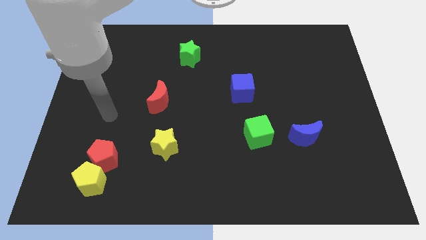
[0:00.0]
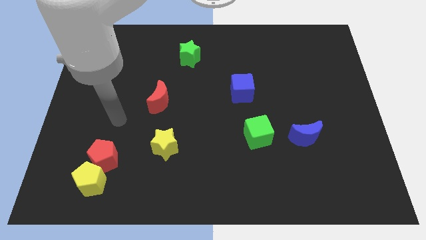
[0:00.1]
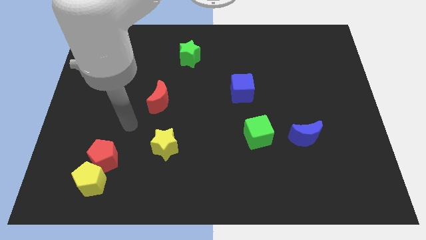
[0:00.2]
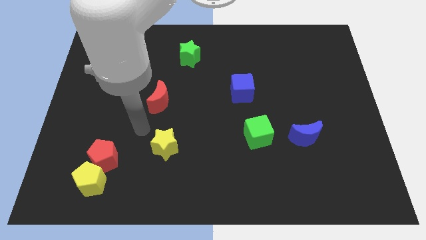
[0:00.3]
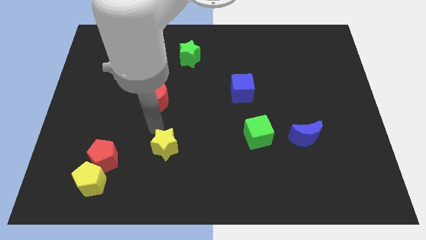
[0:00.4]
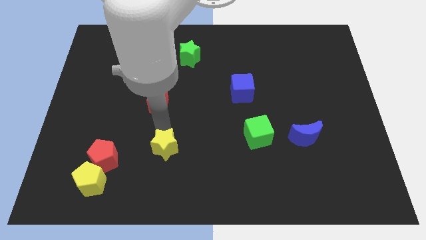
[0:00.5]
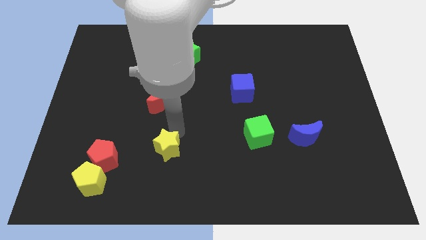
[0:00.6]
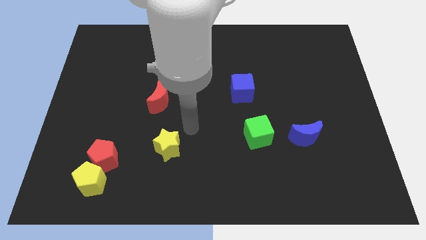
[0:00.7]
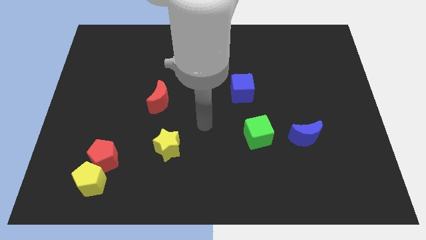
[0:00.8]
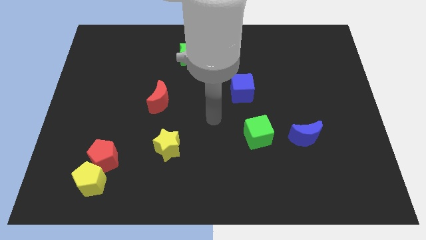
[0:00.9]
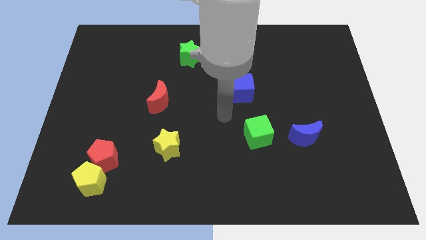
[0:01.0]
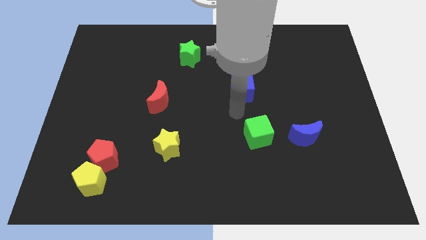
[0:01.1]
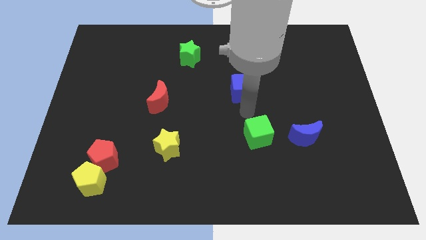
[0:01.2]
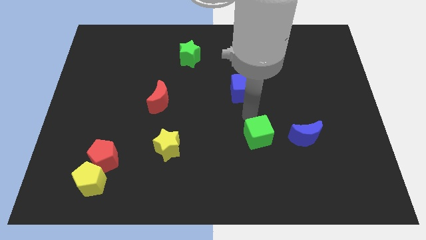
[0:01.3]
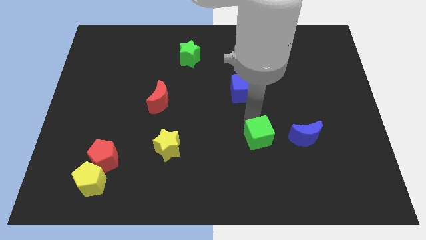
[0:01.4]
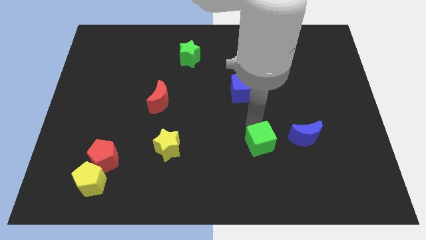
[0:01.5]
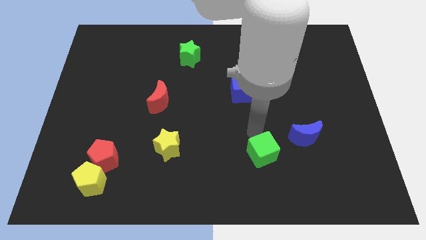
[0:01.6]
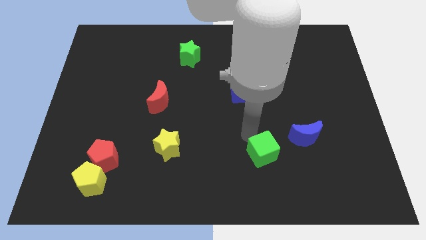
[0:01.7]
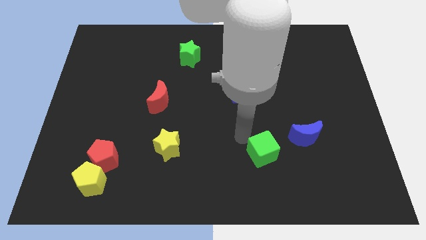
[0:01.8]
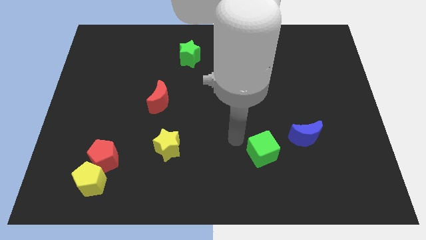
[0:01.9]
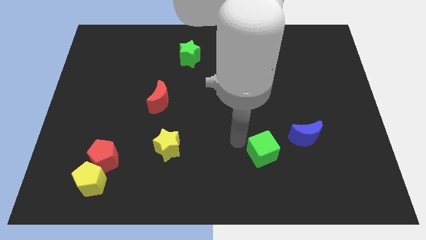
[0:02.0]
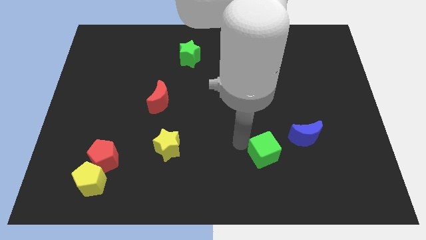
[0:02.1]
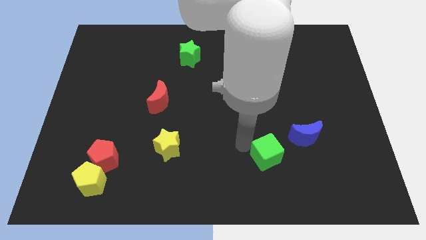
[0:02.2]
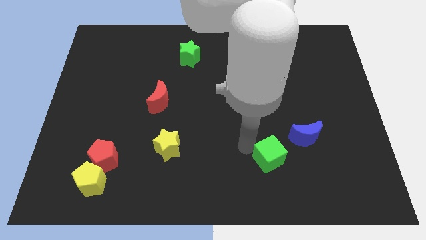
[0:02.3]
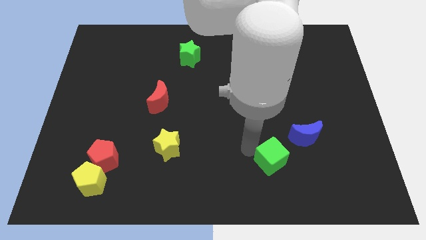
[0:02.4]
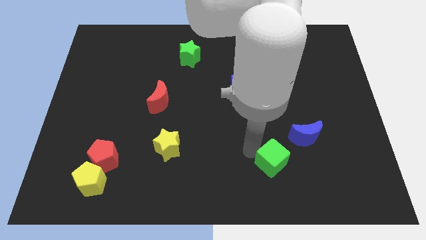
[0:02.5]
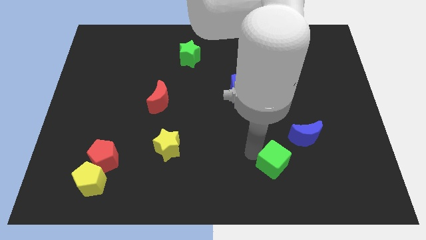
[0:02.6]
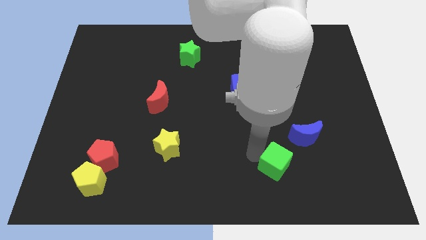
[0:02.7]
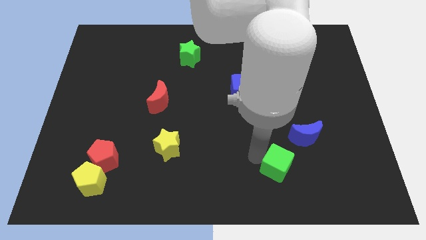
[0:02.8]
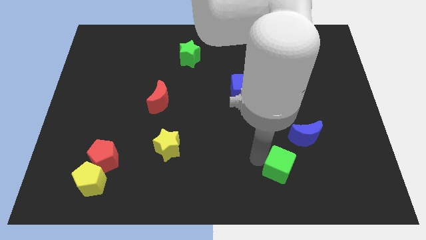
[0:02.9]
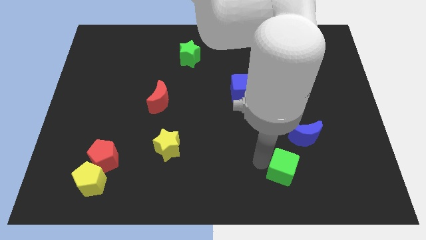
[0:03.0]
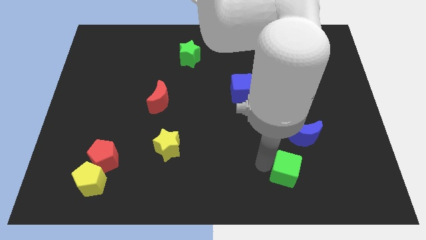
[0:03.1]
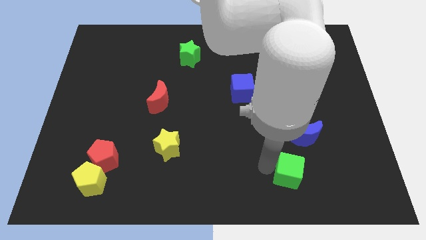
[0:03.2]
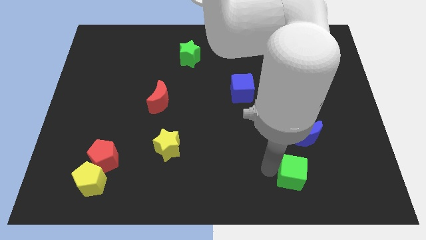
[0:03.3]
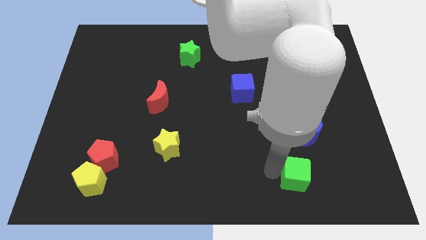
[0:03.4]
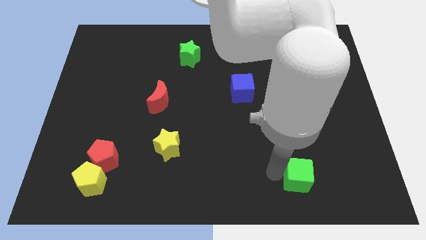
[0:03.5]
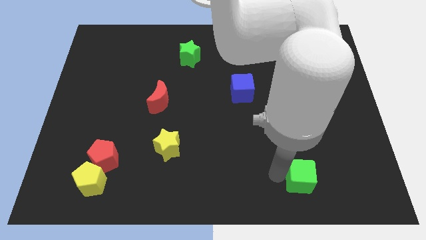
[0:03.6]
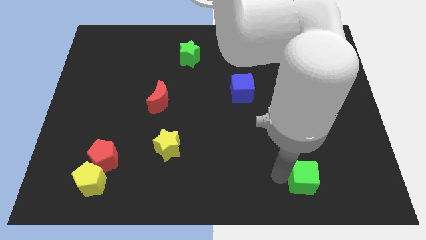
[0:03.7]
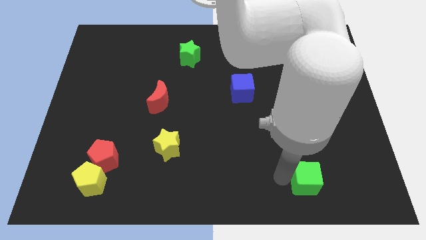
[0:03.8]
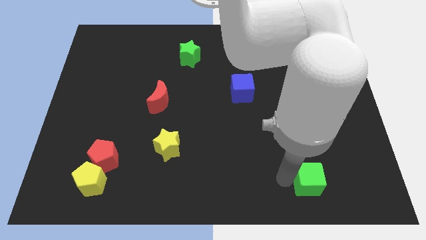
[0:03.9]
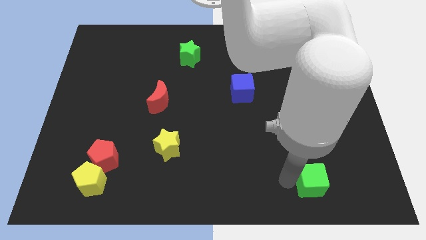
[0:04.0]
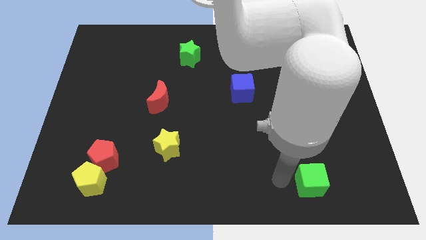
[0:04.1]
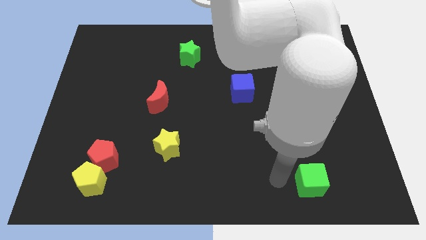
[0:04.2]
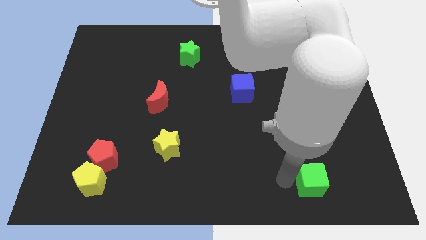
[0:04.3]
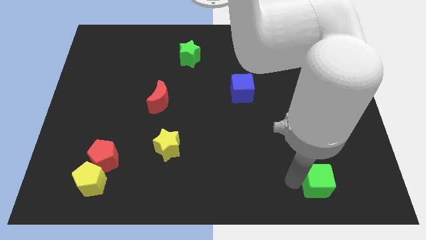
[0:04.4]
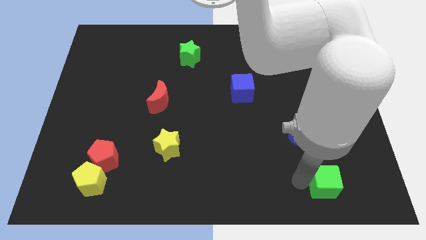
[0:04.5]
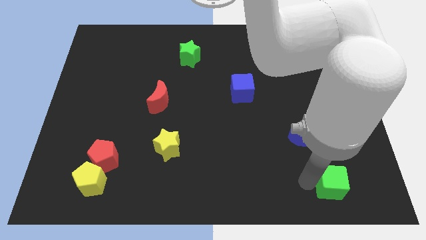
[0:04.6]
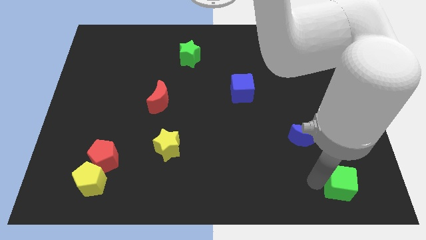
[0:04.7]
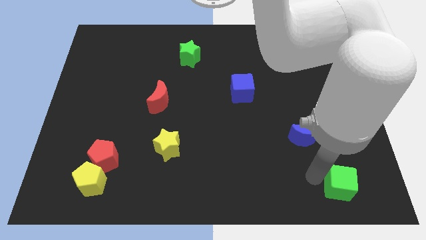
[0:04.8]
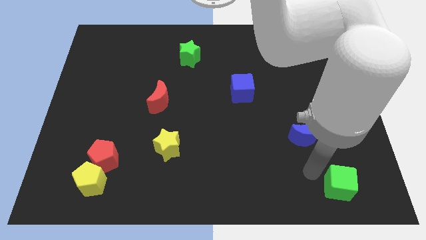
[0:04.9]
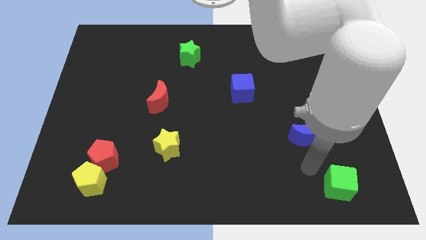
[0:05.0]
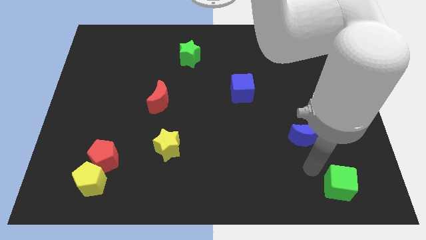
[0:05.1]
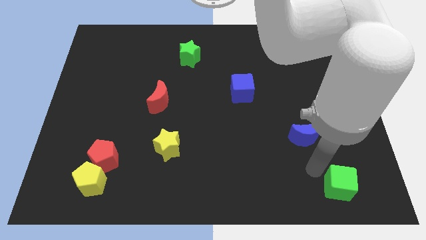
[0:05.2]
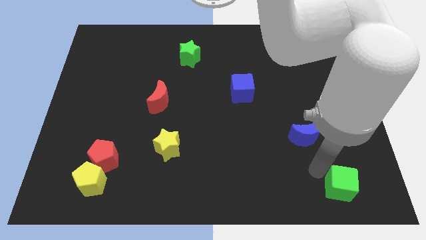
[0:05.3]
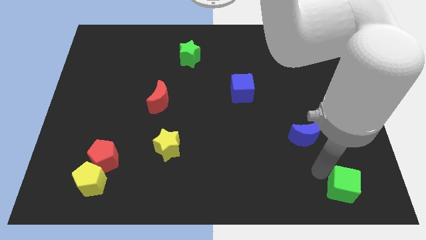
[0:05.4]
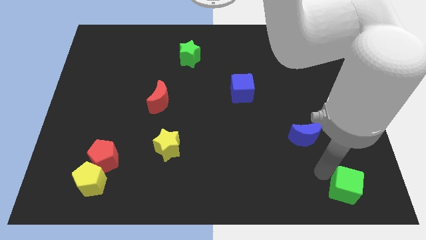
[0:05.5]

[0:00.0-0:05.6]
push the green cube to the lower right corner

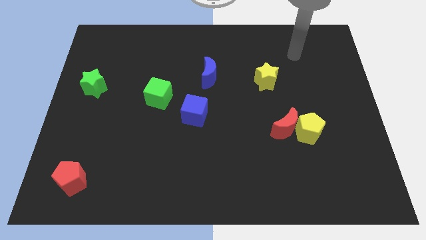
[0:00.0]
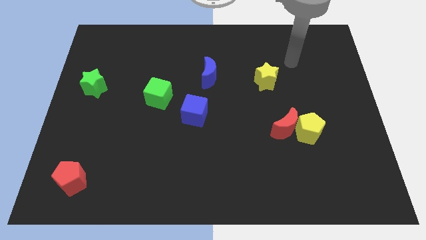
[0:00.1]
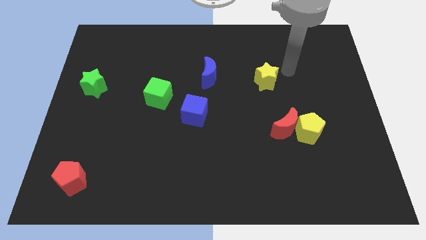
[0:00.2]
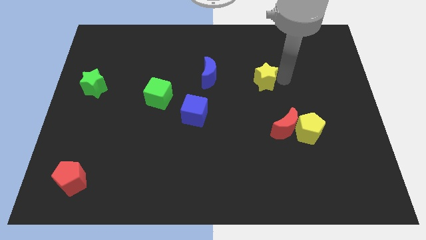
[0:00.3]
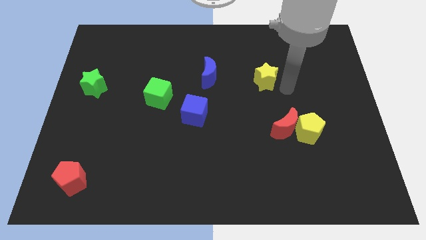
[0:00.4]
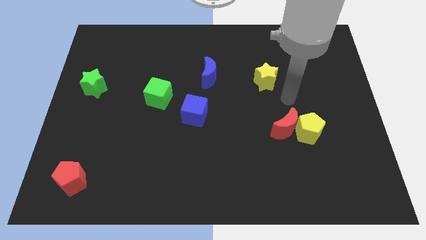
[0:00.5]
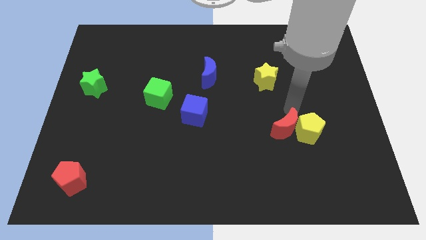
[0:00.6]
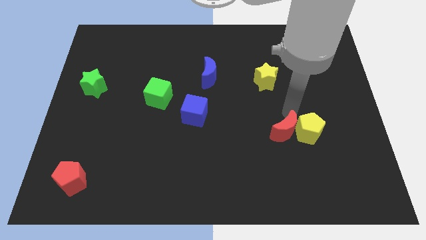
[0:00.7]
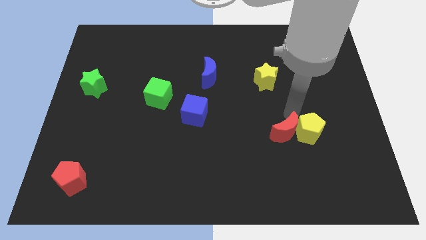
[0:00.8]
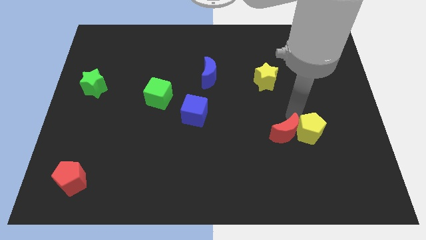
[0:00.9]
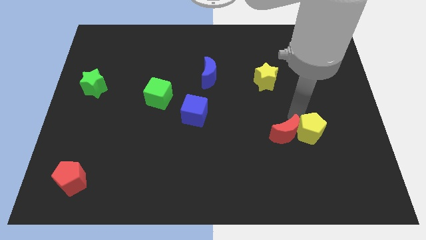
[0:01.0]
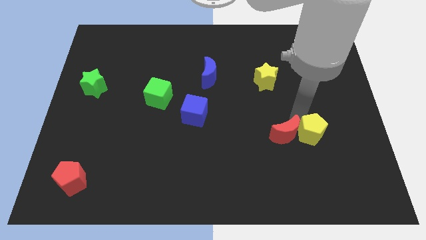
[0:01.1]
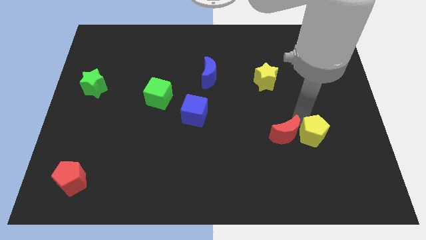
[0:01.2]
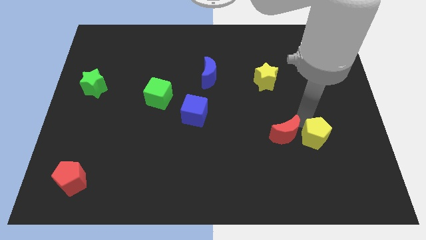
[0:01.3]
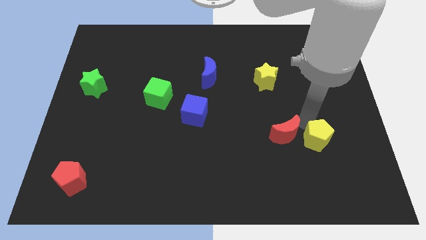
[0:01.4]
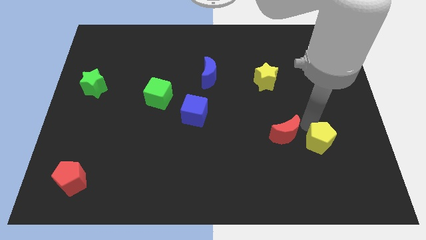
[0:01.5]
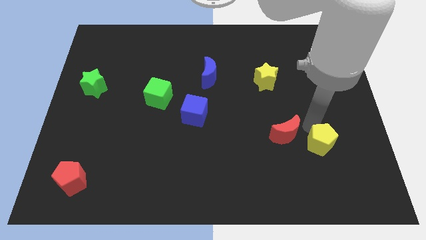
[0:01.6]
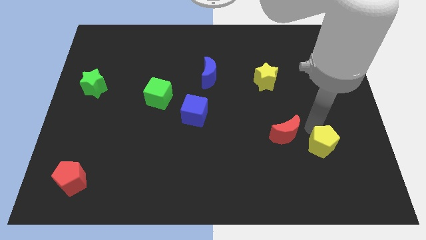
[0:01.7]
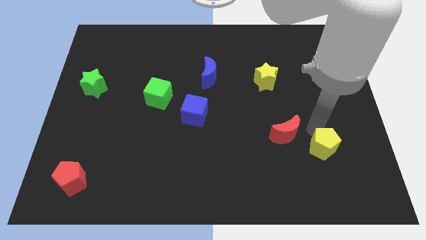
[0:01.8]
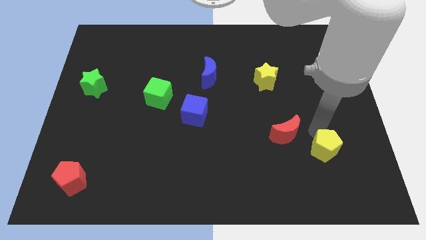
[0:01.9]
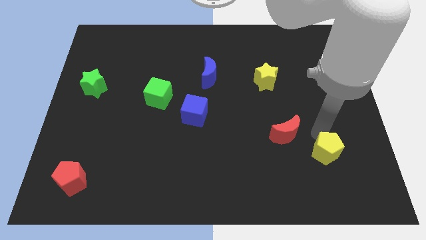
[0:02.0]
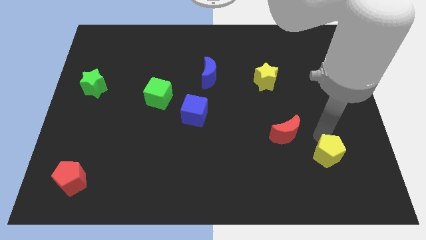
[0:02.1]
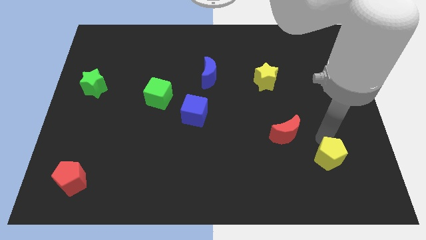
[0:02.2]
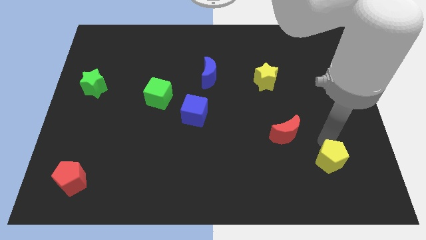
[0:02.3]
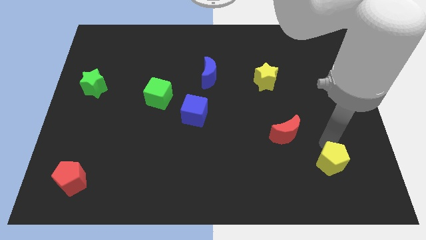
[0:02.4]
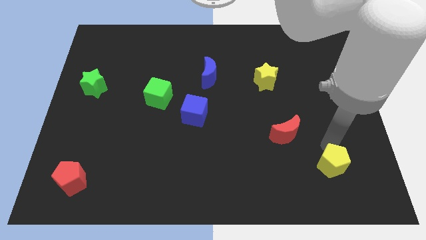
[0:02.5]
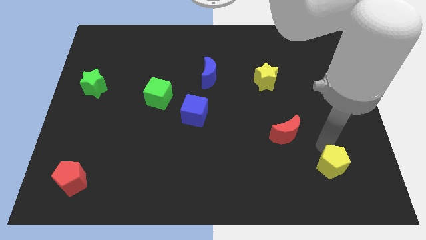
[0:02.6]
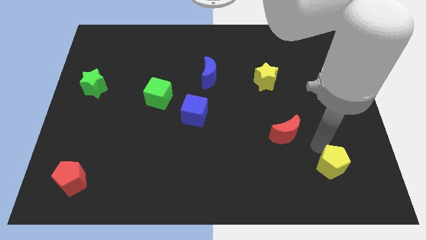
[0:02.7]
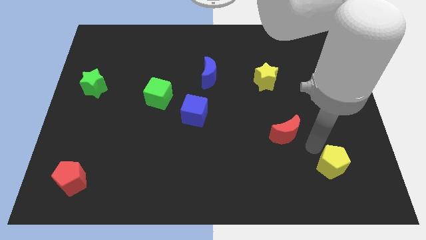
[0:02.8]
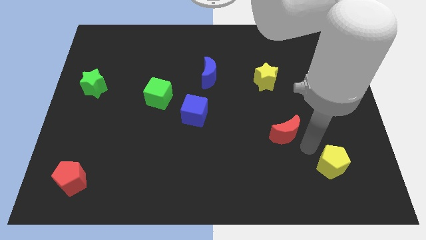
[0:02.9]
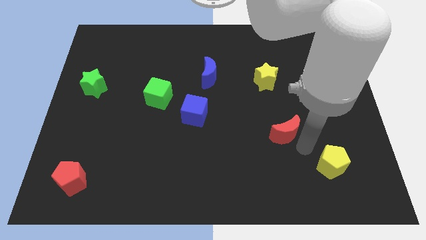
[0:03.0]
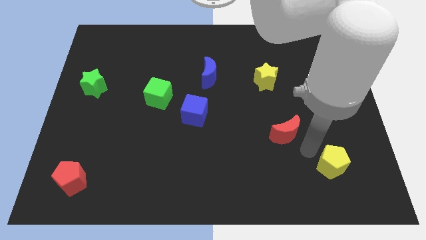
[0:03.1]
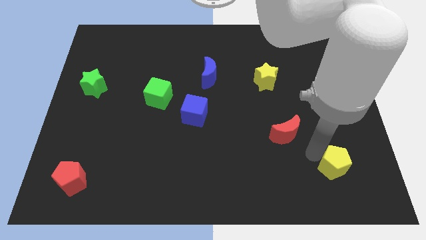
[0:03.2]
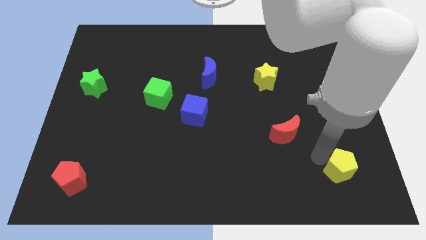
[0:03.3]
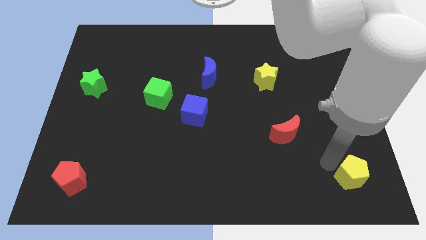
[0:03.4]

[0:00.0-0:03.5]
push the yellow pentagon to the lower right corner
